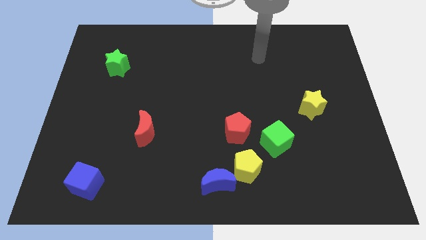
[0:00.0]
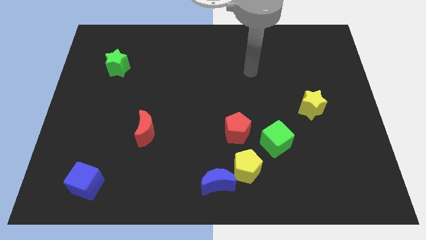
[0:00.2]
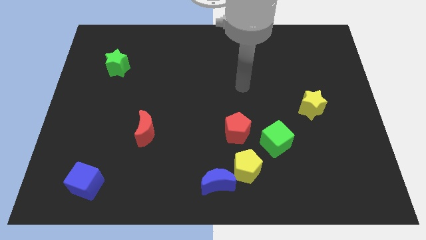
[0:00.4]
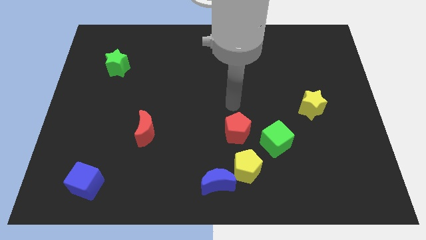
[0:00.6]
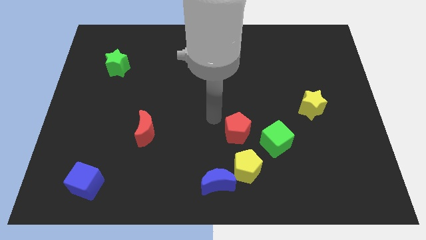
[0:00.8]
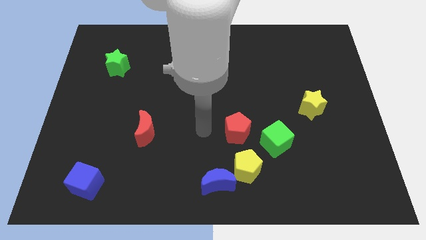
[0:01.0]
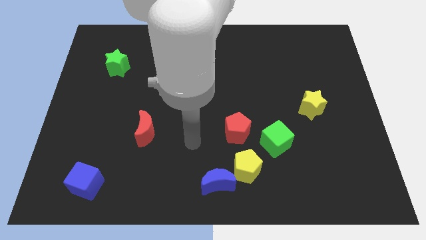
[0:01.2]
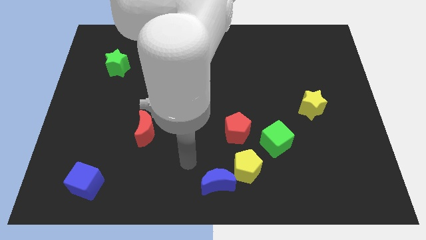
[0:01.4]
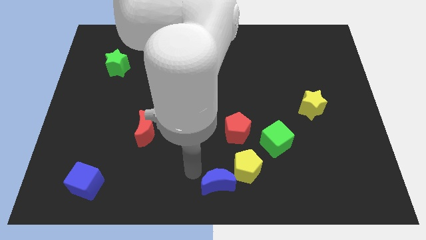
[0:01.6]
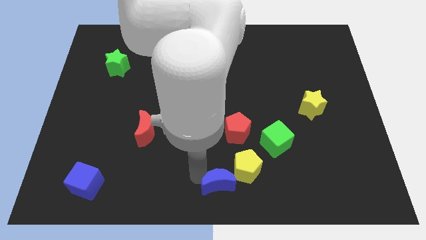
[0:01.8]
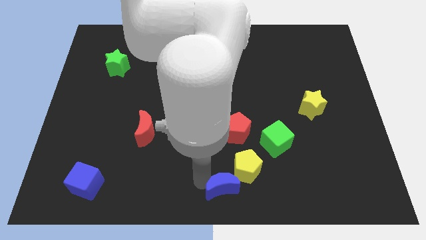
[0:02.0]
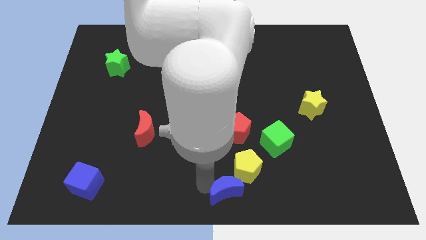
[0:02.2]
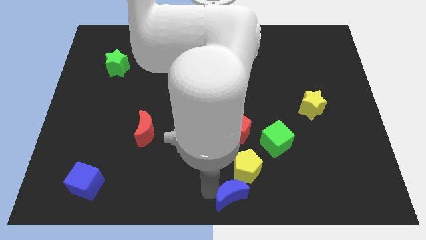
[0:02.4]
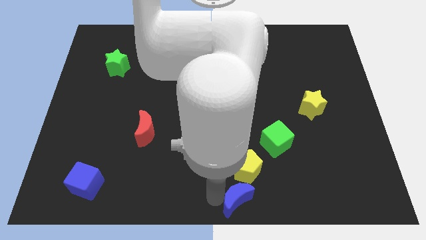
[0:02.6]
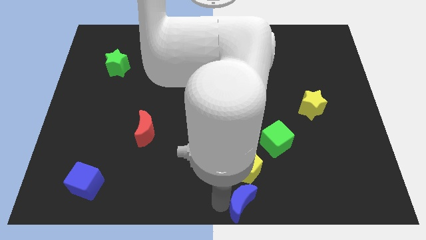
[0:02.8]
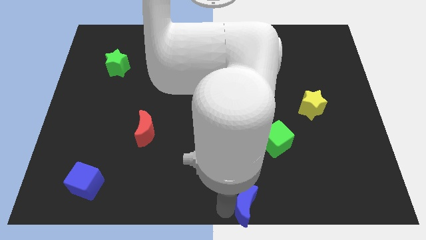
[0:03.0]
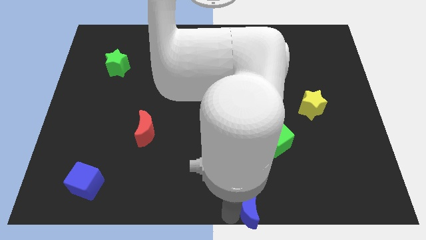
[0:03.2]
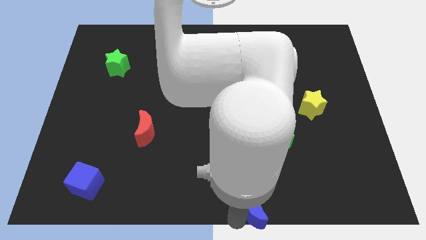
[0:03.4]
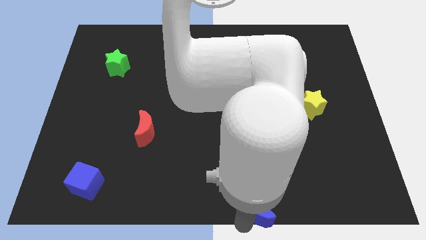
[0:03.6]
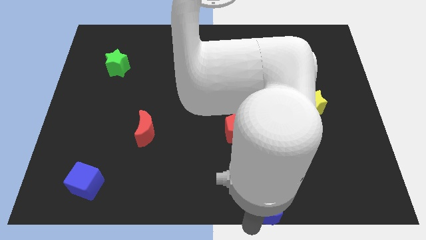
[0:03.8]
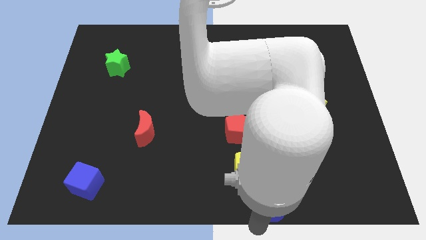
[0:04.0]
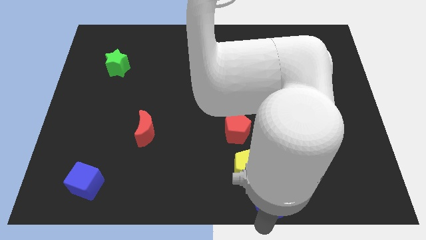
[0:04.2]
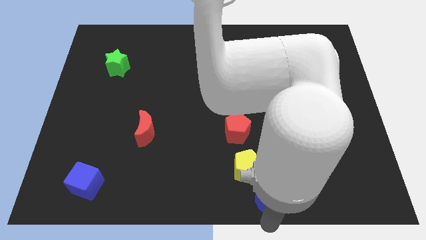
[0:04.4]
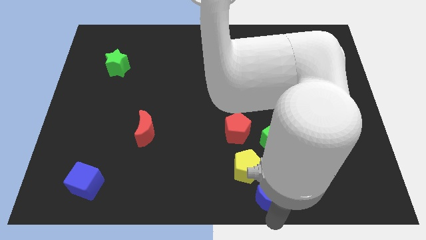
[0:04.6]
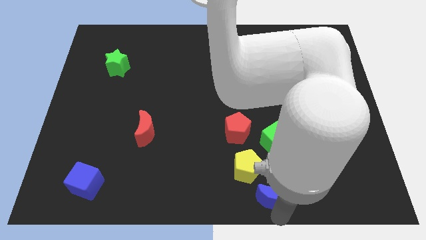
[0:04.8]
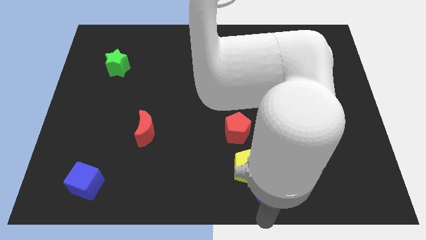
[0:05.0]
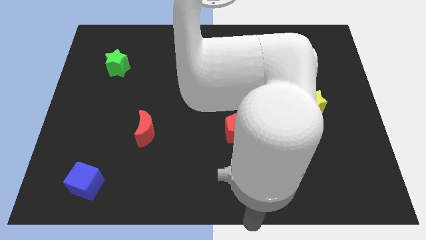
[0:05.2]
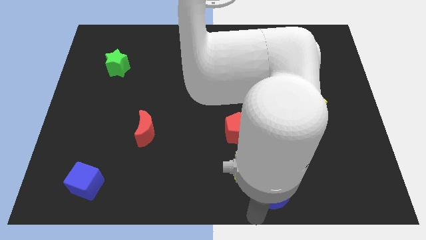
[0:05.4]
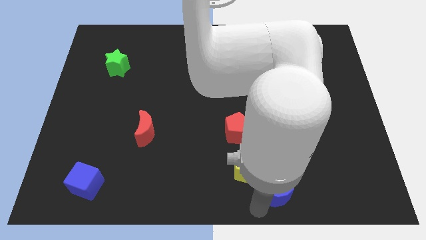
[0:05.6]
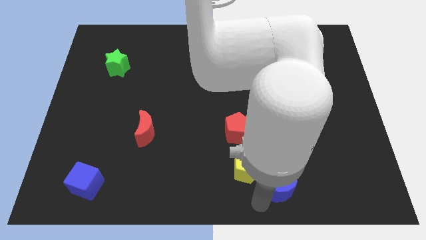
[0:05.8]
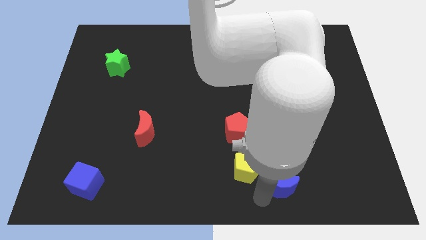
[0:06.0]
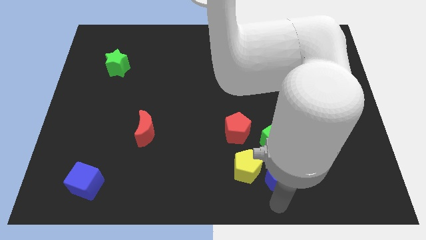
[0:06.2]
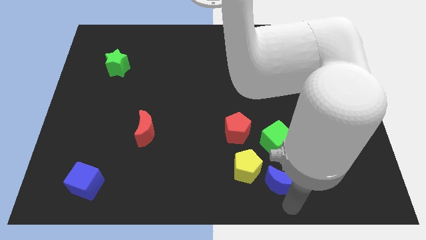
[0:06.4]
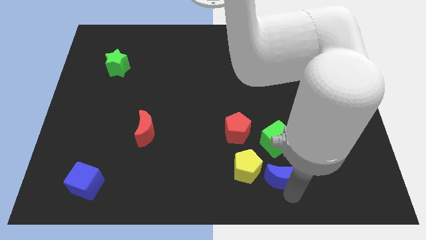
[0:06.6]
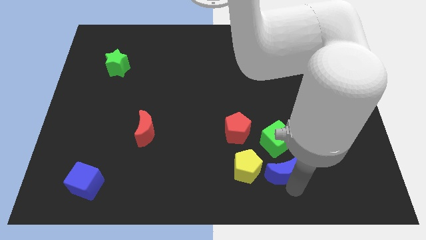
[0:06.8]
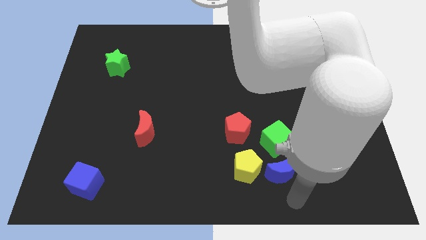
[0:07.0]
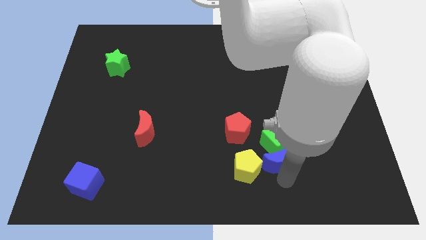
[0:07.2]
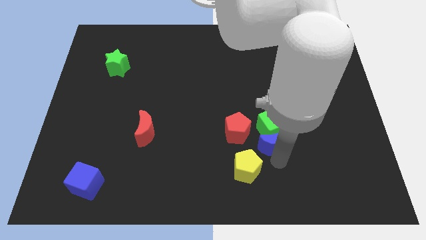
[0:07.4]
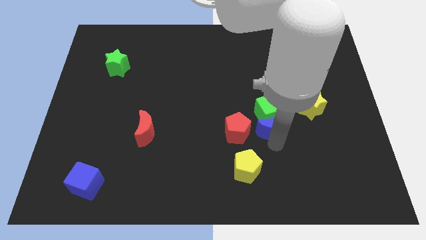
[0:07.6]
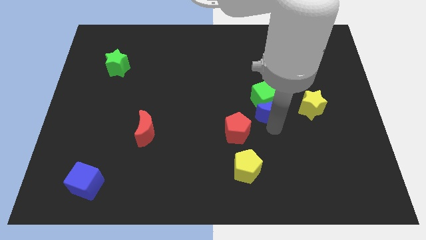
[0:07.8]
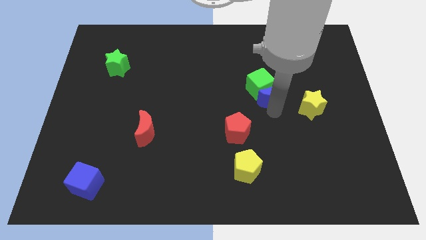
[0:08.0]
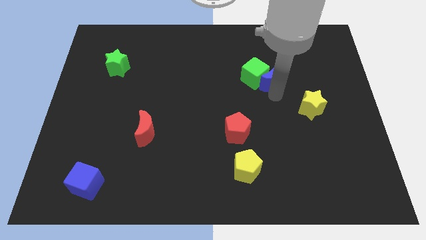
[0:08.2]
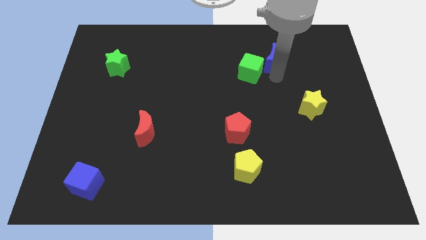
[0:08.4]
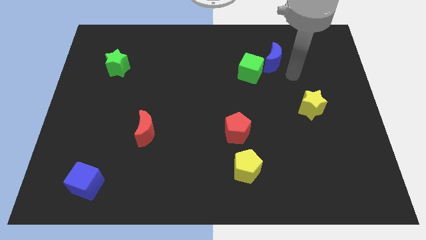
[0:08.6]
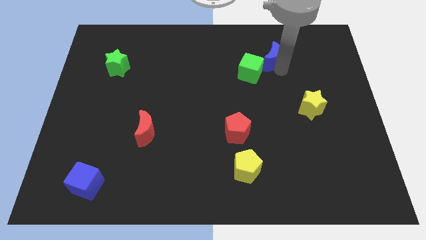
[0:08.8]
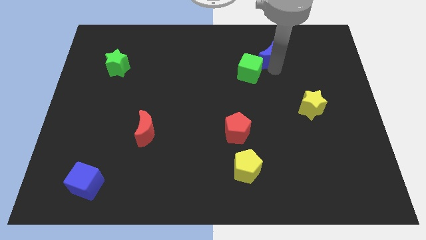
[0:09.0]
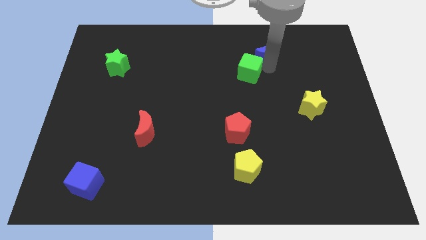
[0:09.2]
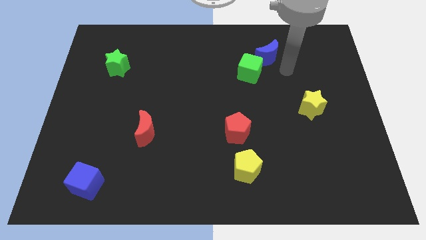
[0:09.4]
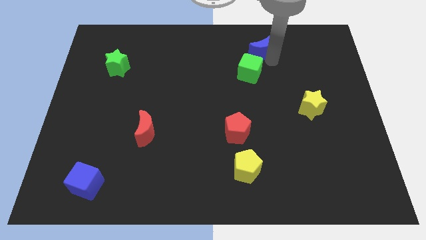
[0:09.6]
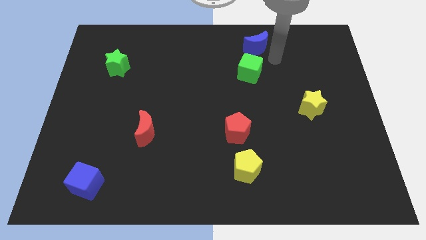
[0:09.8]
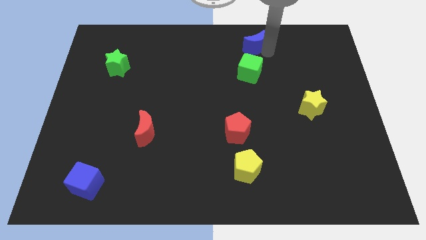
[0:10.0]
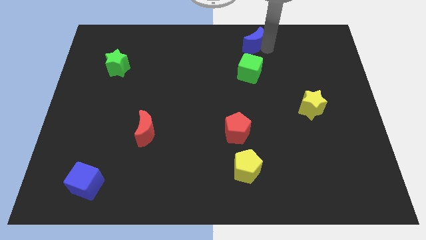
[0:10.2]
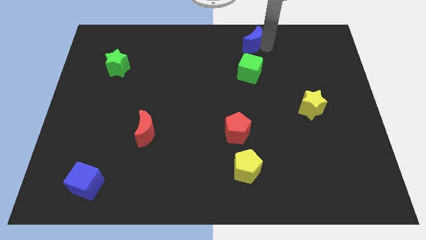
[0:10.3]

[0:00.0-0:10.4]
put the blue moon to the towards your base

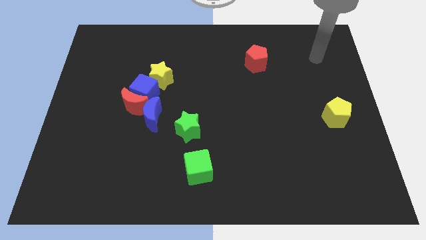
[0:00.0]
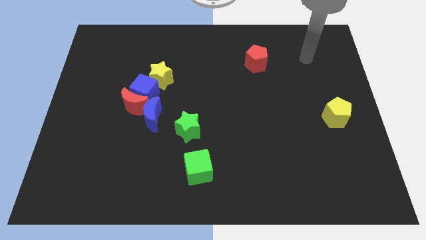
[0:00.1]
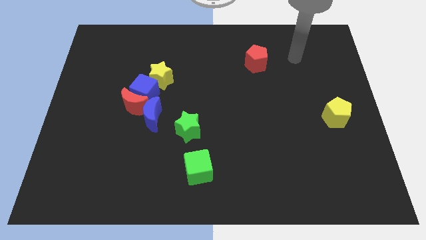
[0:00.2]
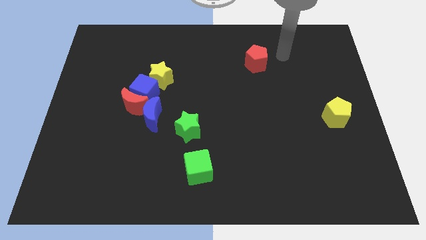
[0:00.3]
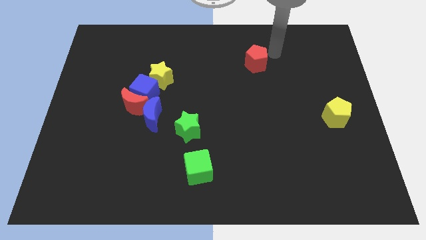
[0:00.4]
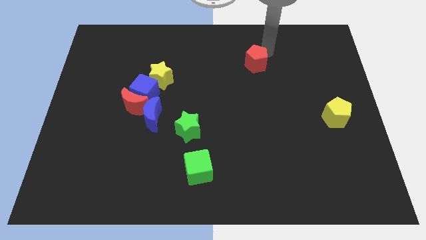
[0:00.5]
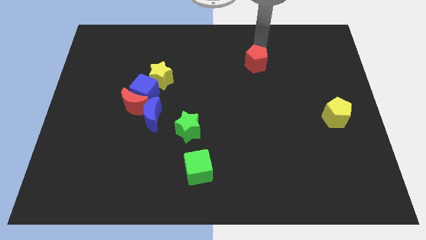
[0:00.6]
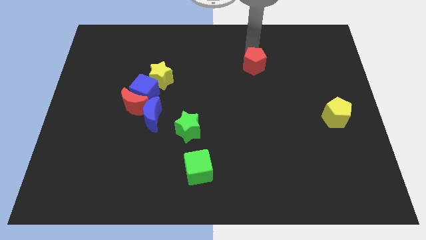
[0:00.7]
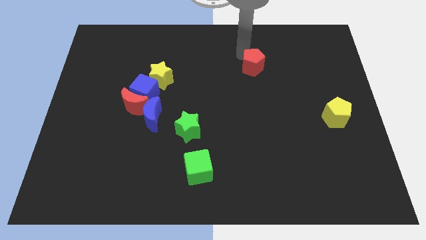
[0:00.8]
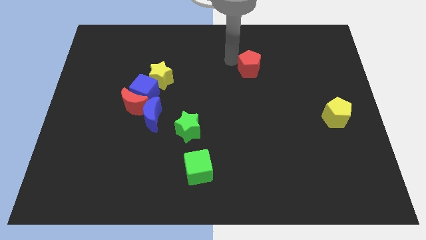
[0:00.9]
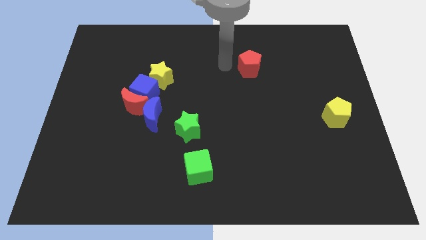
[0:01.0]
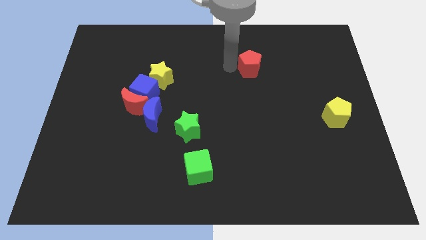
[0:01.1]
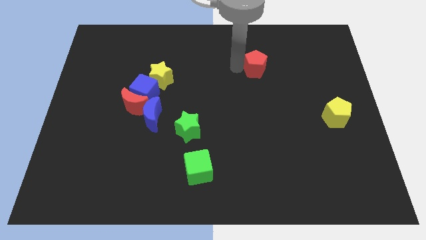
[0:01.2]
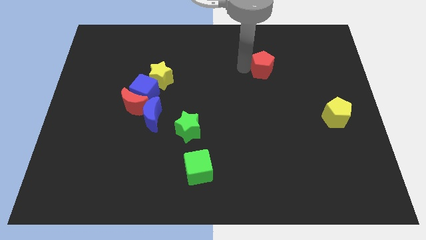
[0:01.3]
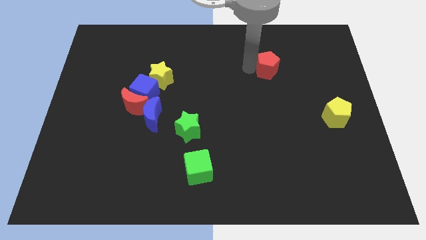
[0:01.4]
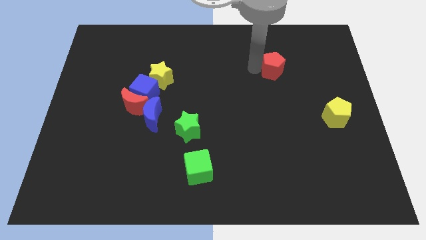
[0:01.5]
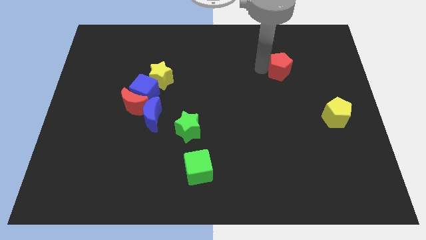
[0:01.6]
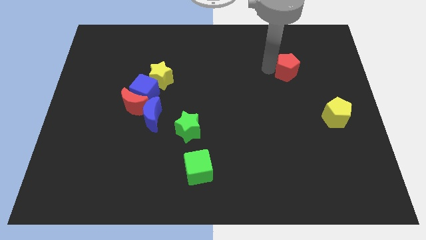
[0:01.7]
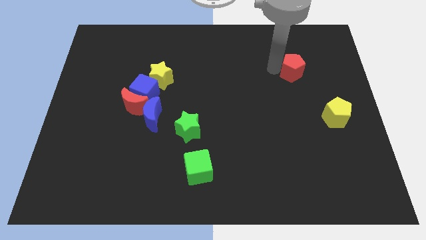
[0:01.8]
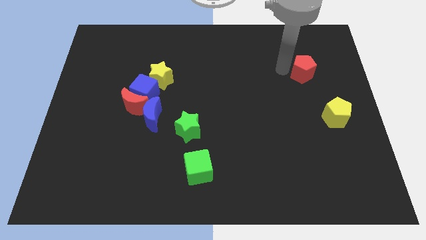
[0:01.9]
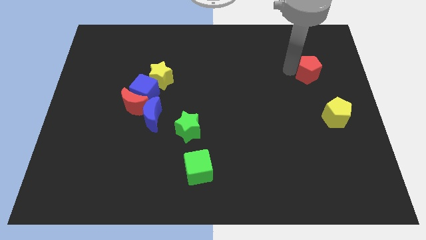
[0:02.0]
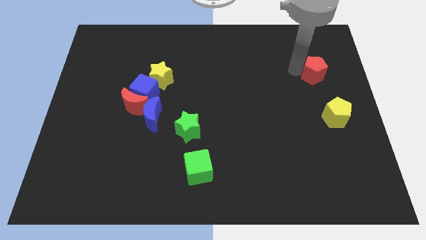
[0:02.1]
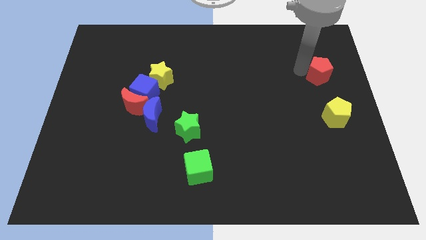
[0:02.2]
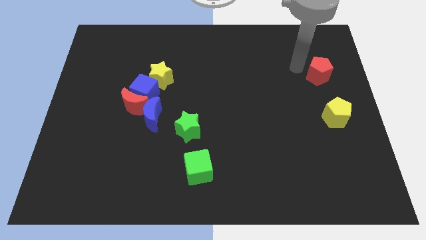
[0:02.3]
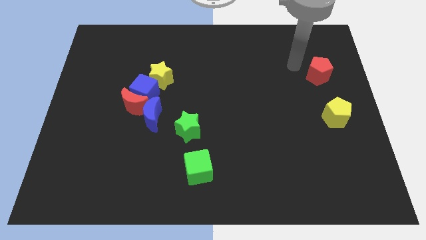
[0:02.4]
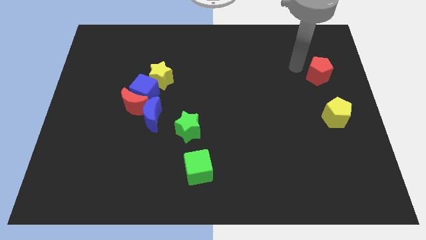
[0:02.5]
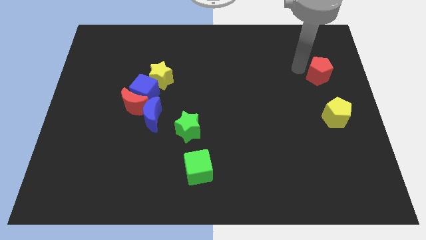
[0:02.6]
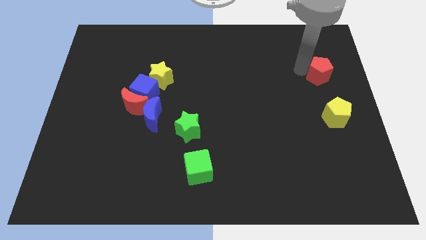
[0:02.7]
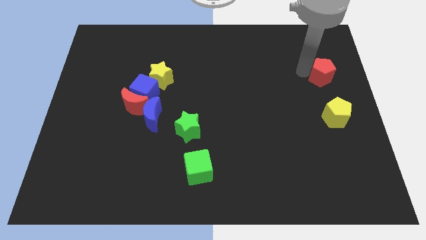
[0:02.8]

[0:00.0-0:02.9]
put the red pentagon to the center right
